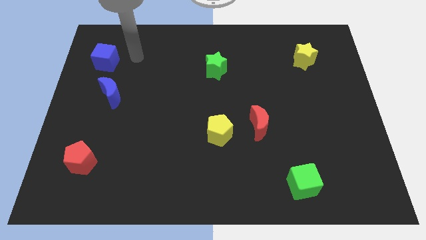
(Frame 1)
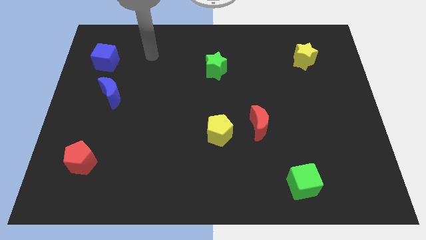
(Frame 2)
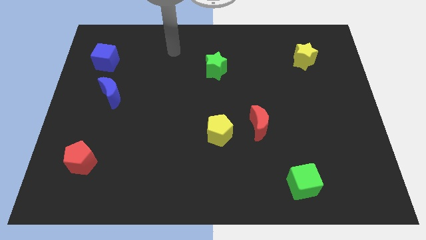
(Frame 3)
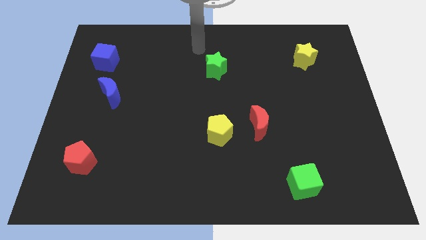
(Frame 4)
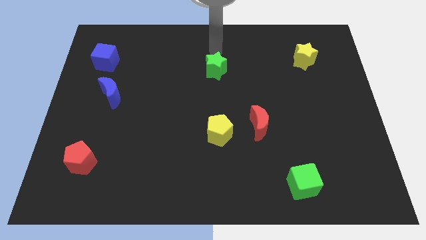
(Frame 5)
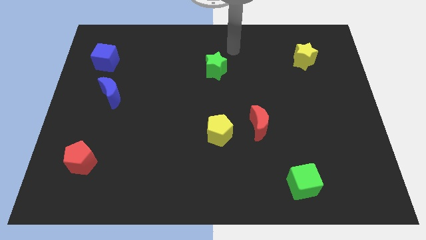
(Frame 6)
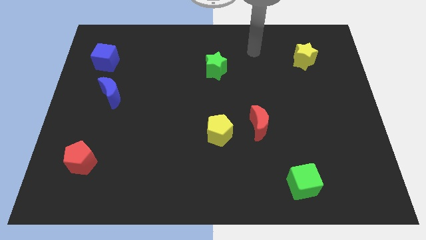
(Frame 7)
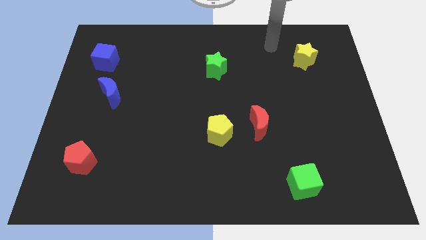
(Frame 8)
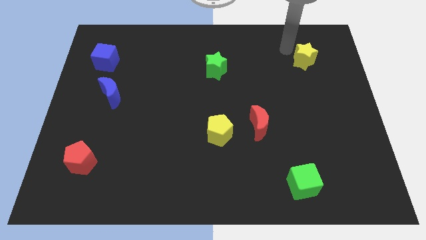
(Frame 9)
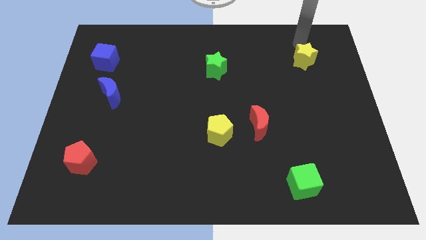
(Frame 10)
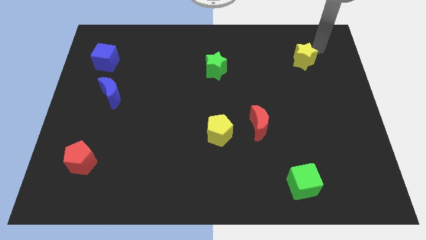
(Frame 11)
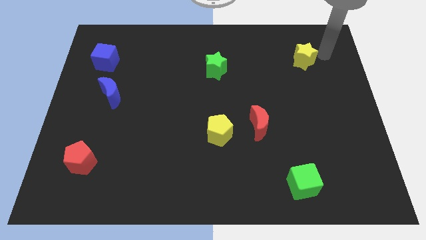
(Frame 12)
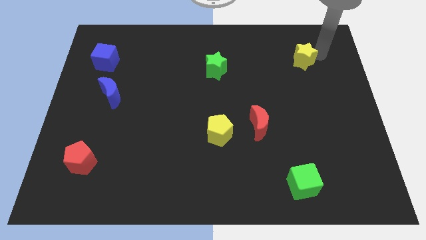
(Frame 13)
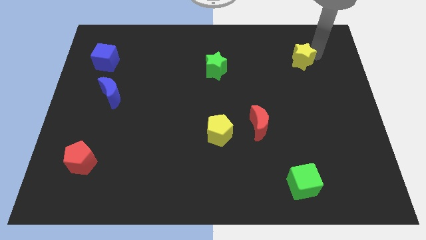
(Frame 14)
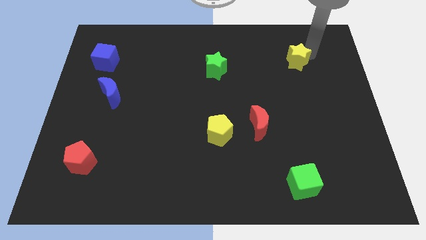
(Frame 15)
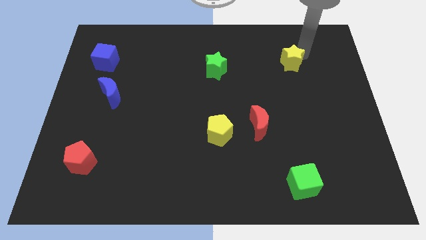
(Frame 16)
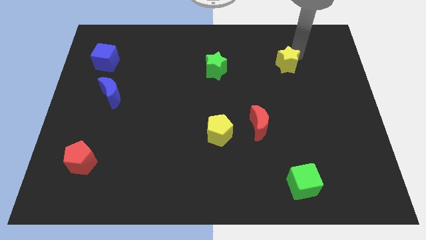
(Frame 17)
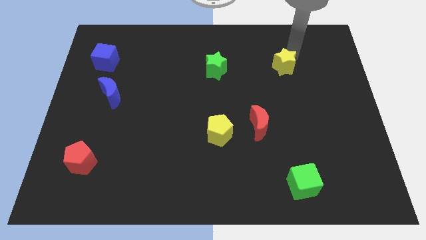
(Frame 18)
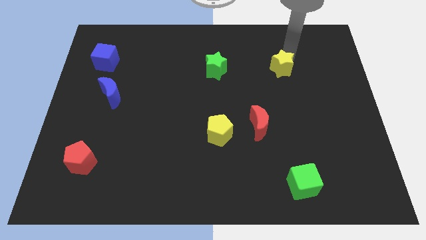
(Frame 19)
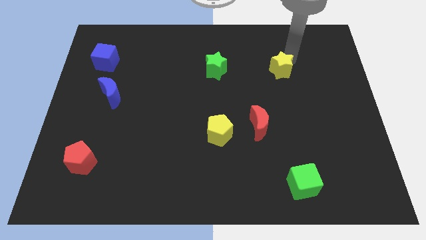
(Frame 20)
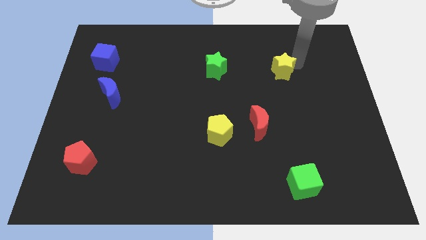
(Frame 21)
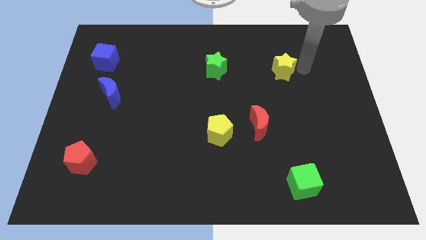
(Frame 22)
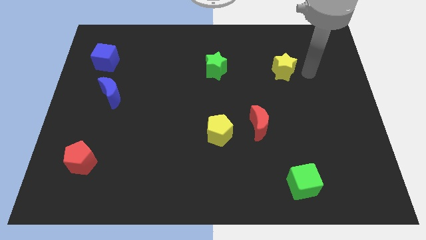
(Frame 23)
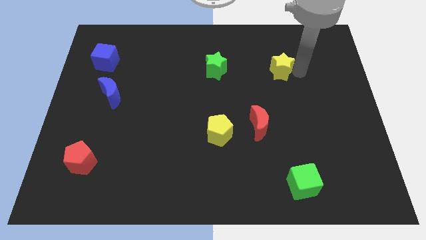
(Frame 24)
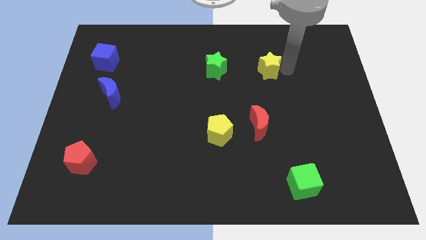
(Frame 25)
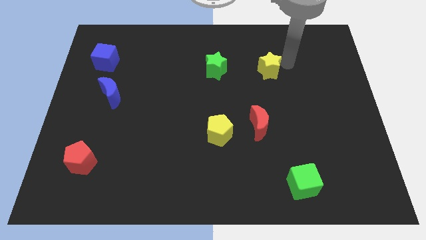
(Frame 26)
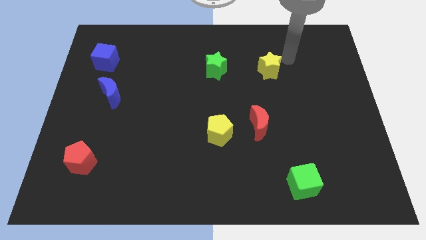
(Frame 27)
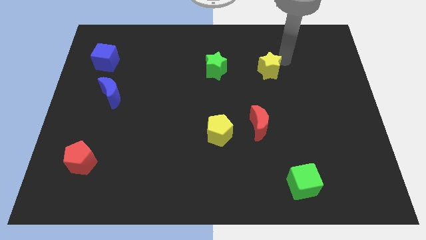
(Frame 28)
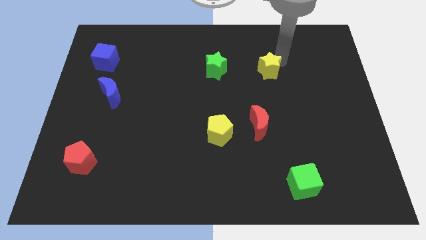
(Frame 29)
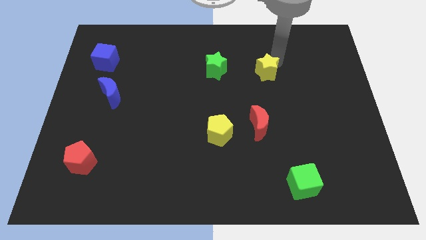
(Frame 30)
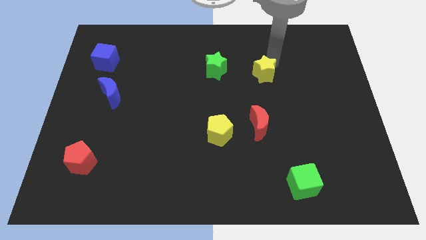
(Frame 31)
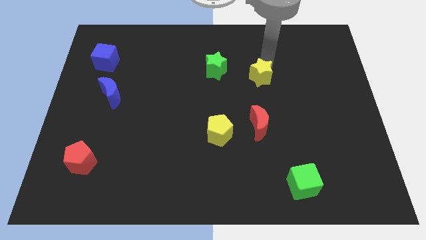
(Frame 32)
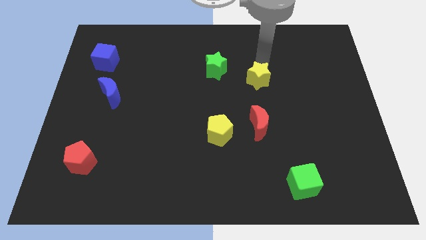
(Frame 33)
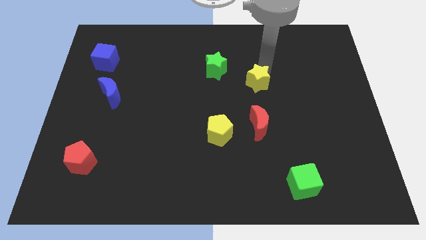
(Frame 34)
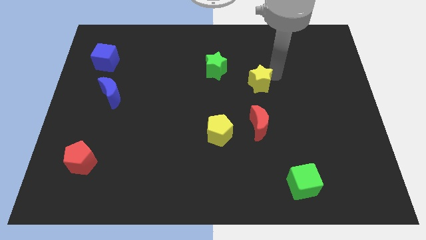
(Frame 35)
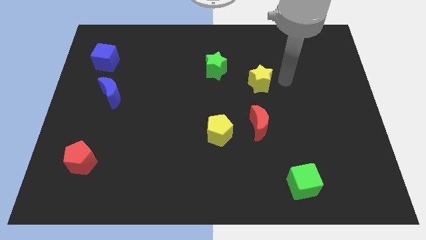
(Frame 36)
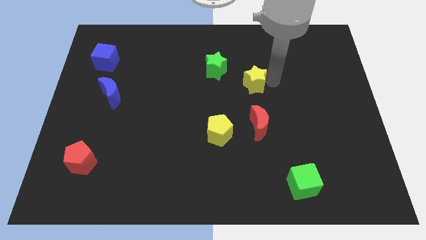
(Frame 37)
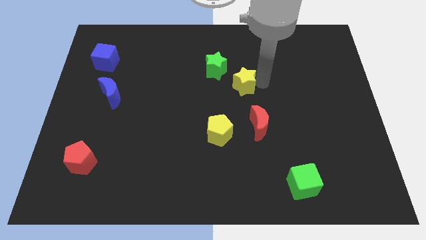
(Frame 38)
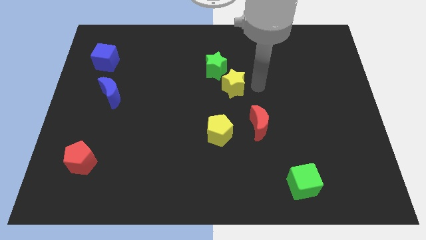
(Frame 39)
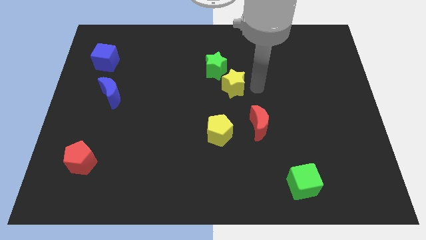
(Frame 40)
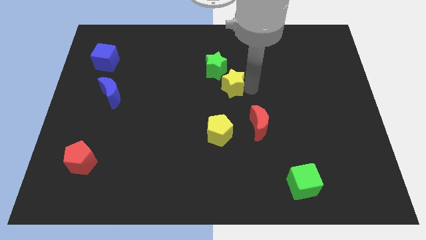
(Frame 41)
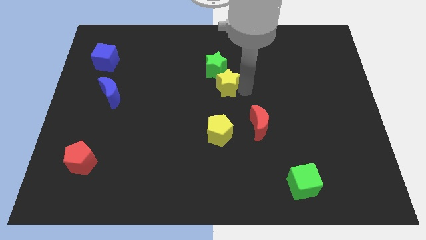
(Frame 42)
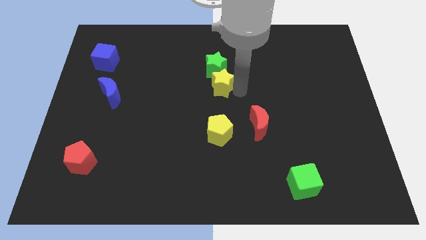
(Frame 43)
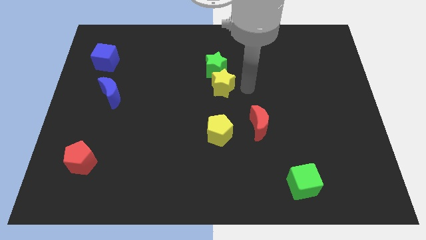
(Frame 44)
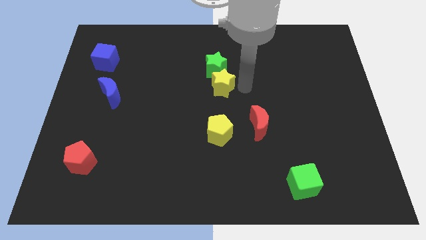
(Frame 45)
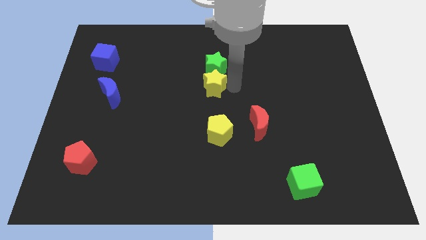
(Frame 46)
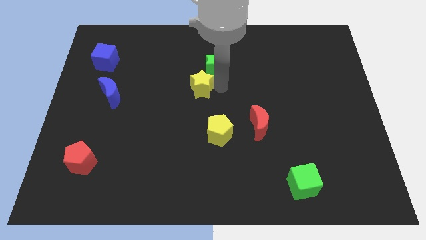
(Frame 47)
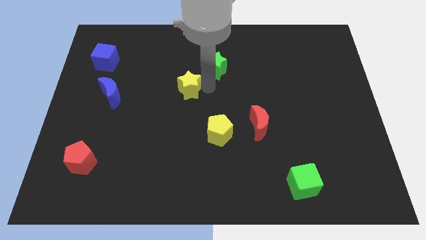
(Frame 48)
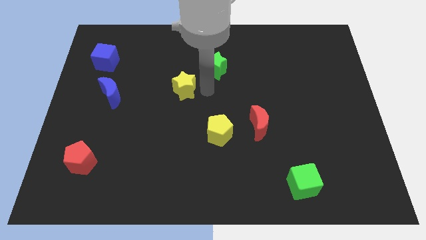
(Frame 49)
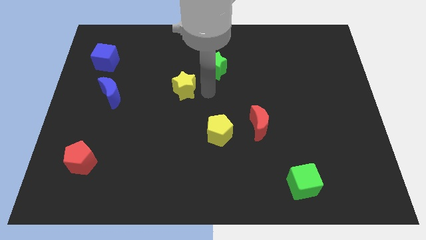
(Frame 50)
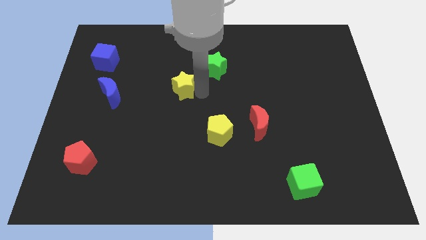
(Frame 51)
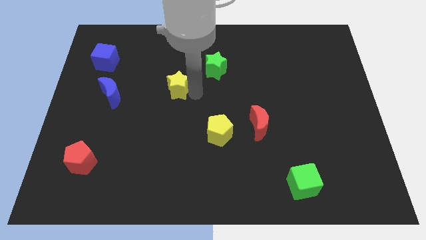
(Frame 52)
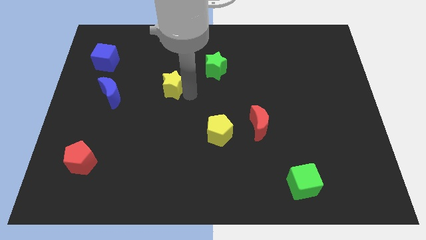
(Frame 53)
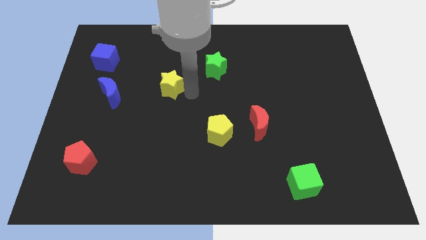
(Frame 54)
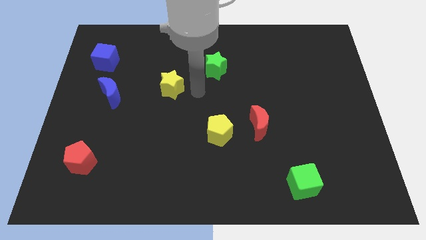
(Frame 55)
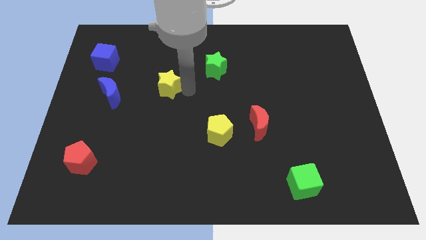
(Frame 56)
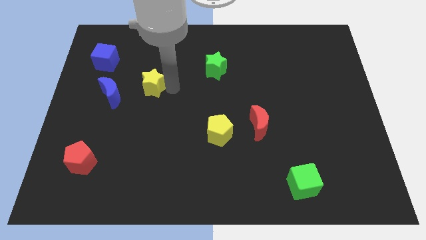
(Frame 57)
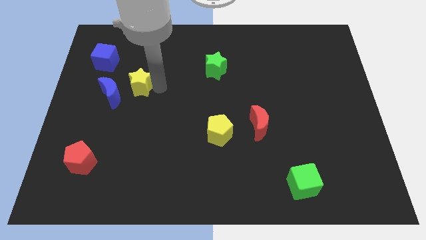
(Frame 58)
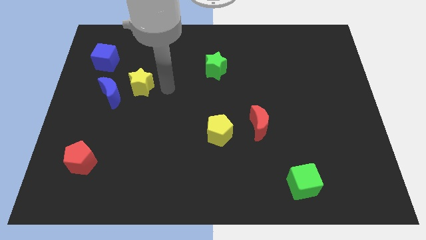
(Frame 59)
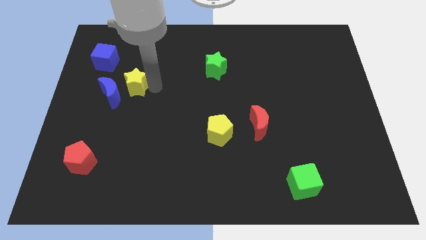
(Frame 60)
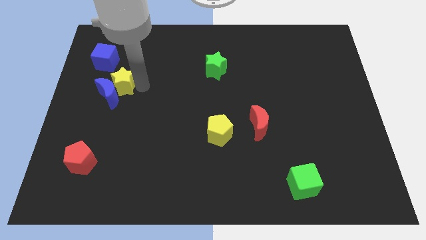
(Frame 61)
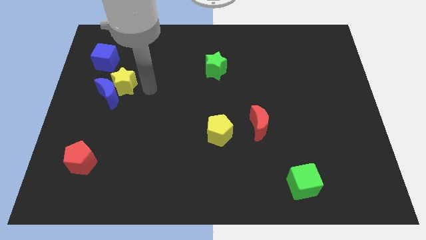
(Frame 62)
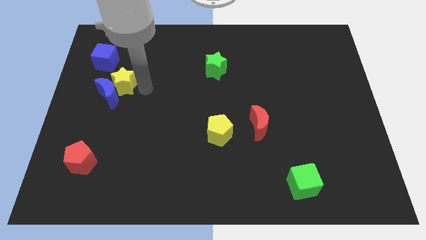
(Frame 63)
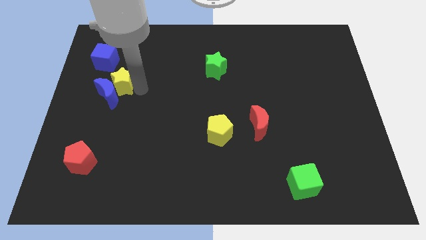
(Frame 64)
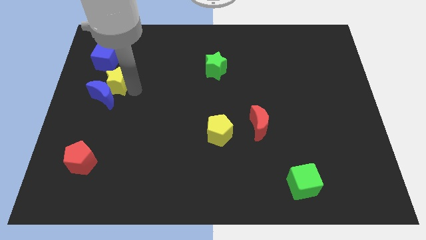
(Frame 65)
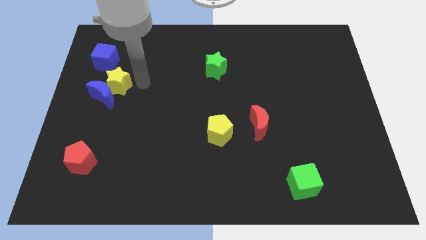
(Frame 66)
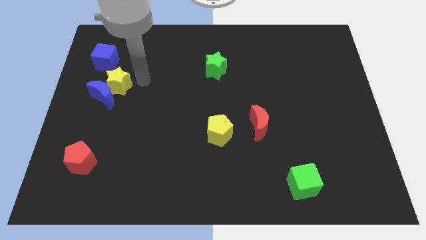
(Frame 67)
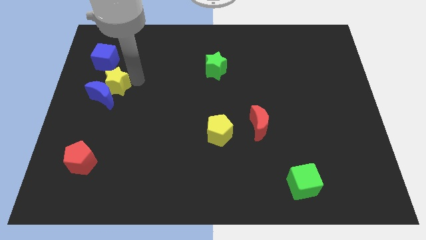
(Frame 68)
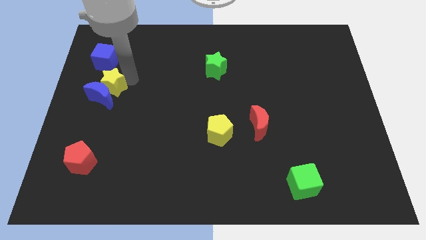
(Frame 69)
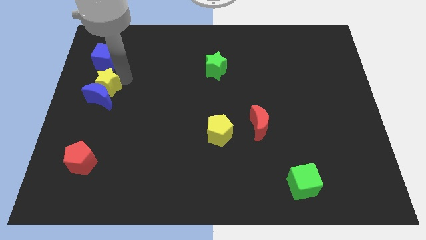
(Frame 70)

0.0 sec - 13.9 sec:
put the yellow star to the left side

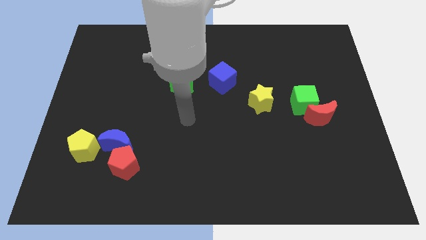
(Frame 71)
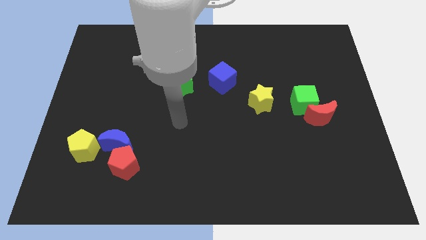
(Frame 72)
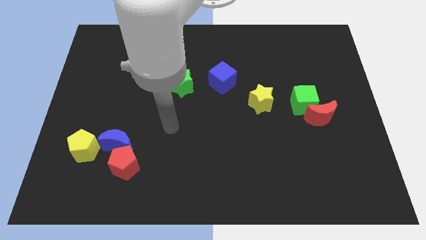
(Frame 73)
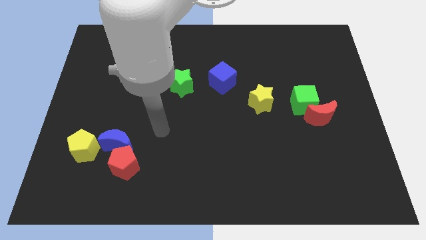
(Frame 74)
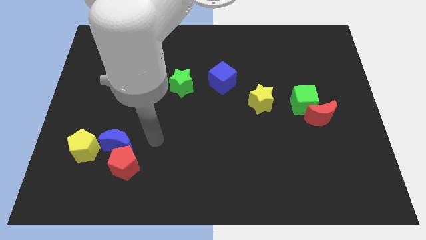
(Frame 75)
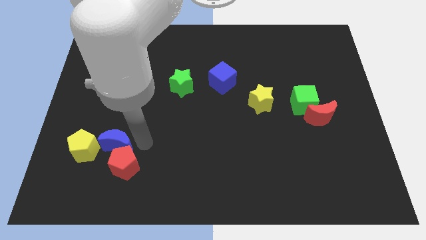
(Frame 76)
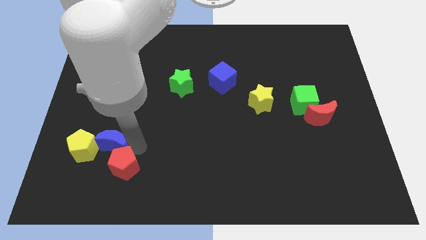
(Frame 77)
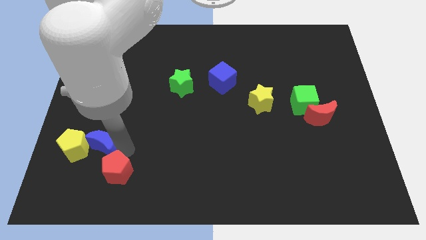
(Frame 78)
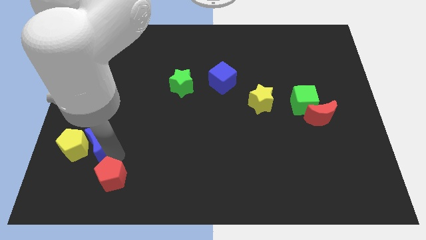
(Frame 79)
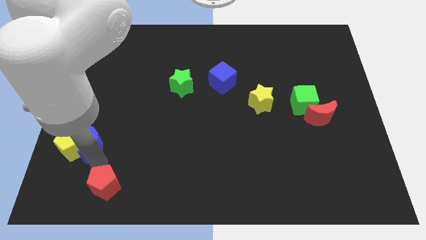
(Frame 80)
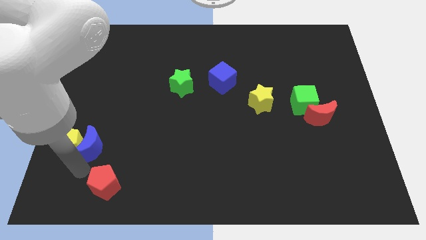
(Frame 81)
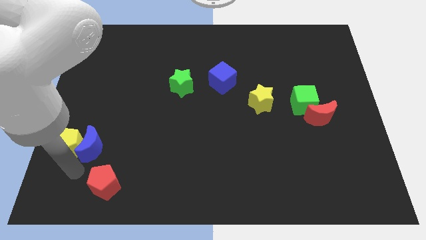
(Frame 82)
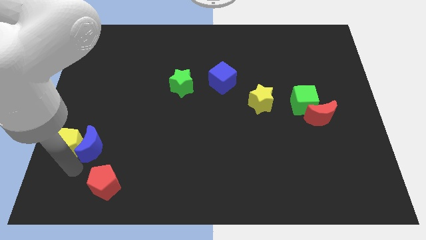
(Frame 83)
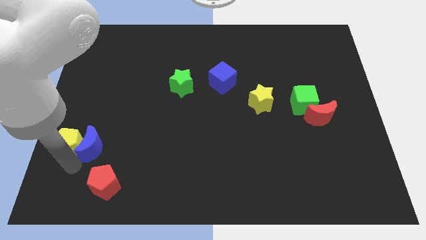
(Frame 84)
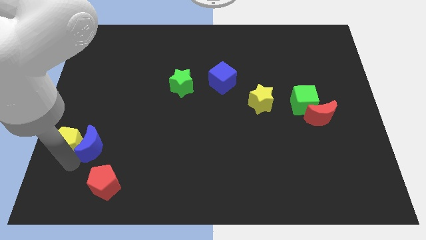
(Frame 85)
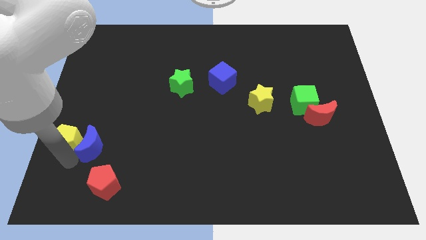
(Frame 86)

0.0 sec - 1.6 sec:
put the yellow pentagon to the left side of the board

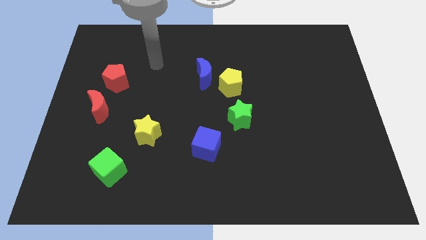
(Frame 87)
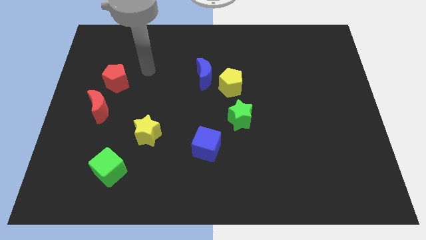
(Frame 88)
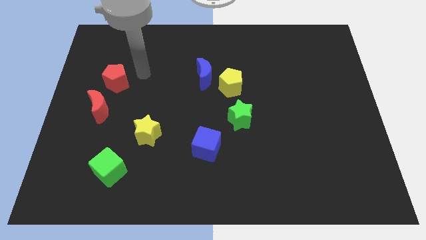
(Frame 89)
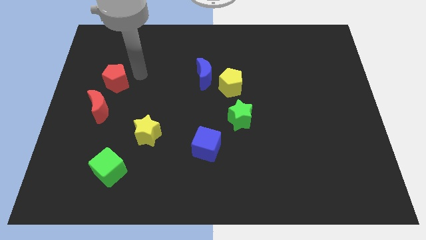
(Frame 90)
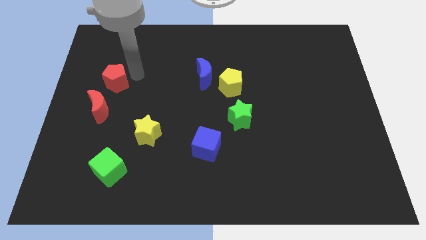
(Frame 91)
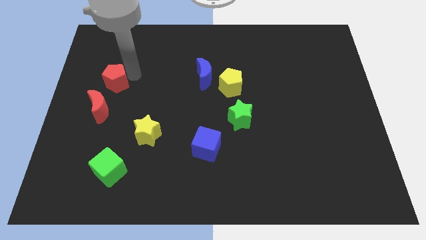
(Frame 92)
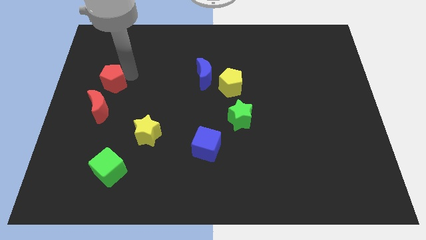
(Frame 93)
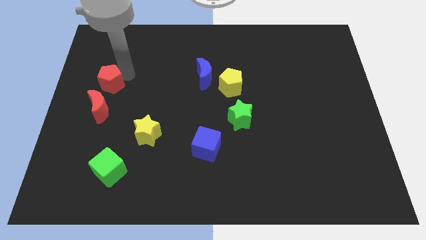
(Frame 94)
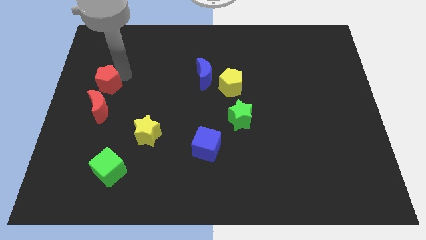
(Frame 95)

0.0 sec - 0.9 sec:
put the red pentagon to the center left
